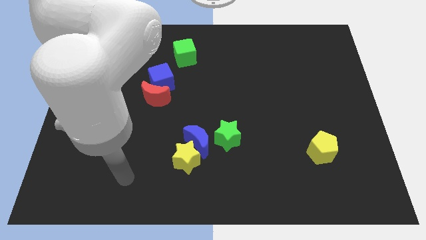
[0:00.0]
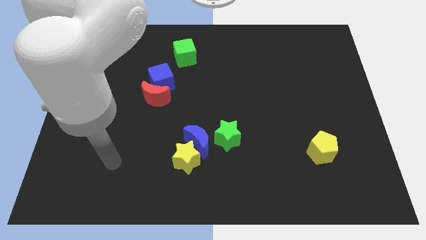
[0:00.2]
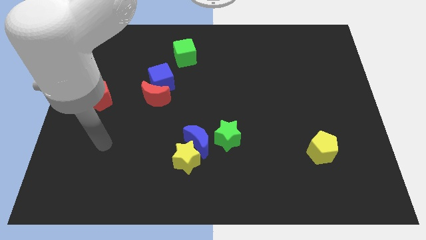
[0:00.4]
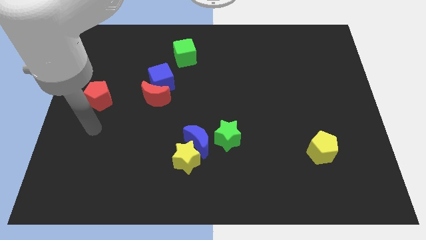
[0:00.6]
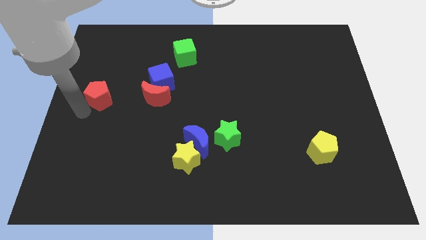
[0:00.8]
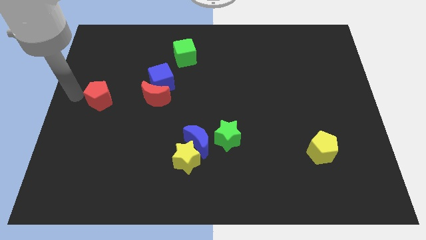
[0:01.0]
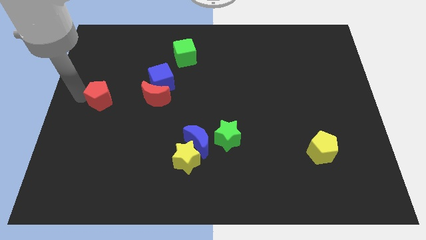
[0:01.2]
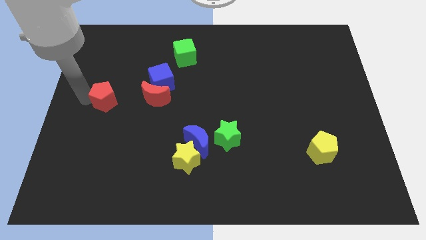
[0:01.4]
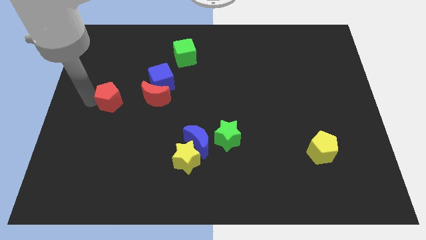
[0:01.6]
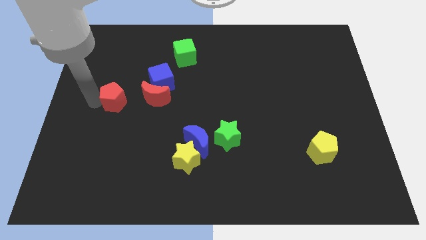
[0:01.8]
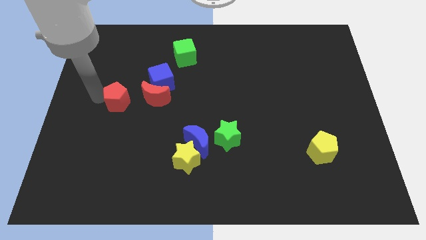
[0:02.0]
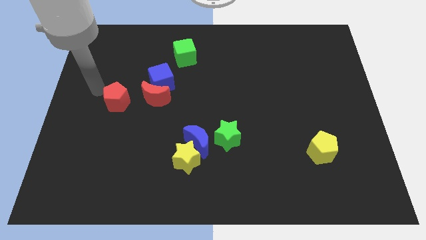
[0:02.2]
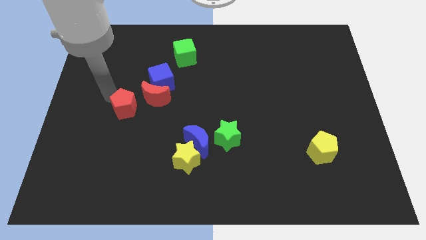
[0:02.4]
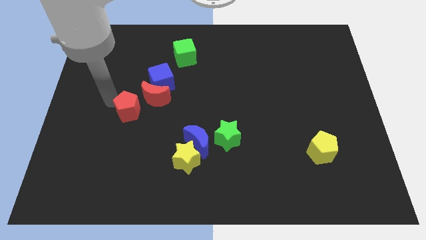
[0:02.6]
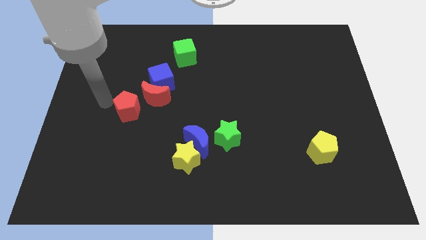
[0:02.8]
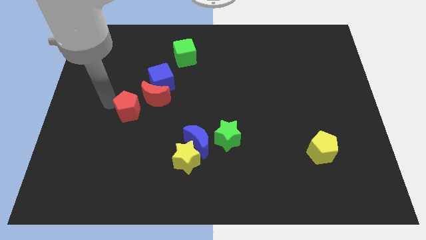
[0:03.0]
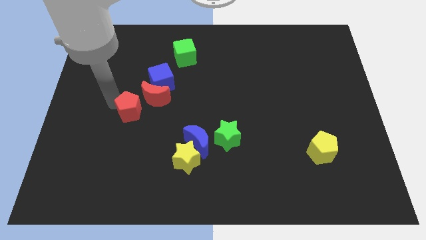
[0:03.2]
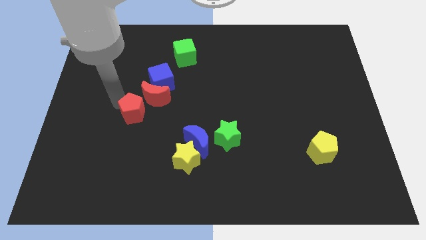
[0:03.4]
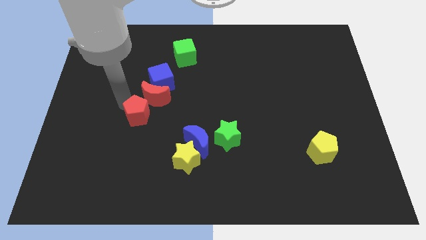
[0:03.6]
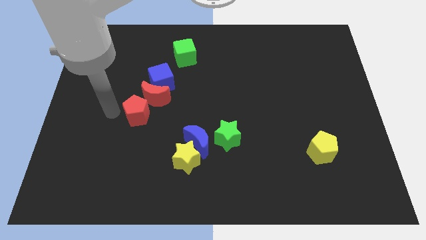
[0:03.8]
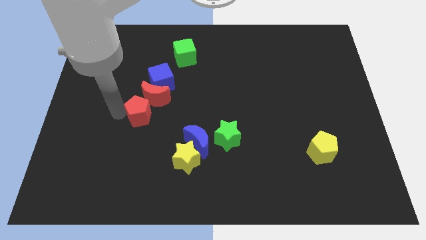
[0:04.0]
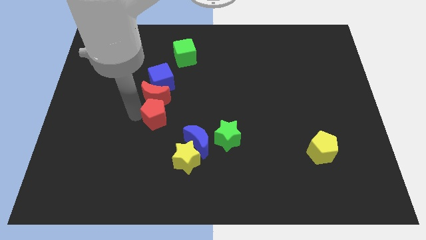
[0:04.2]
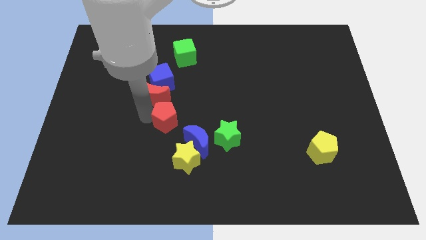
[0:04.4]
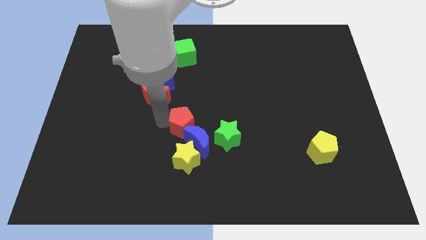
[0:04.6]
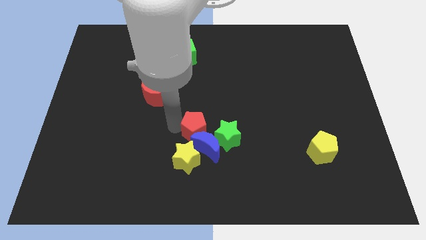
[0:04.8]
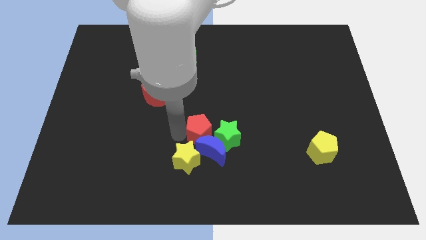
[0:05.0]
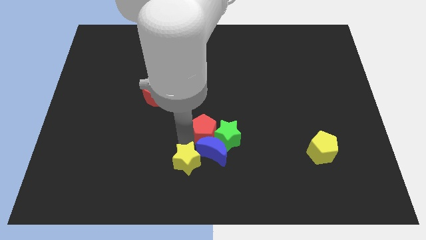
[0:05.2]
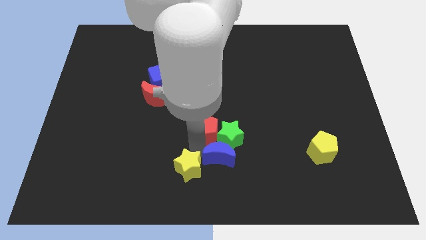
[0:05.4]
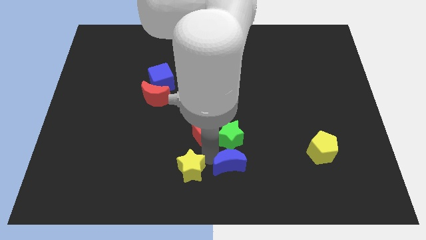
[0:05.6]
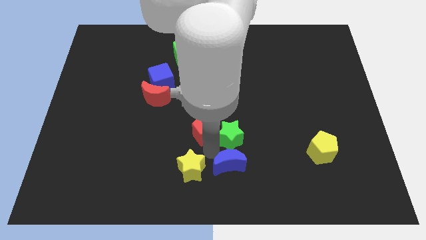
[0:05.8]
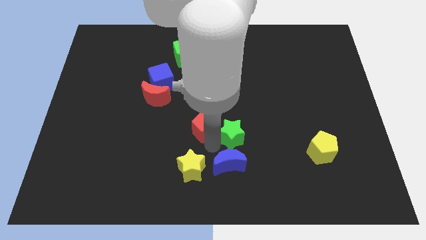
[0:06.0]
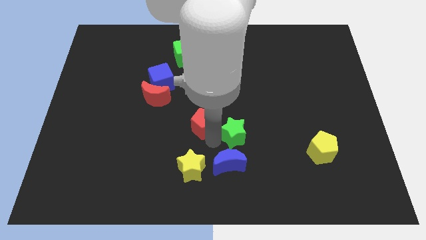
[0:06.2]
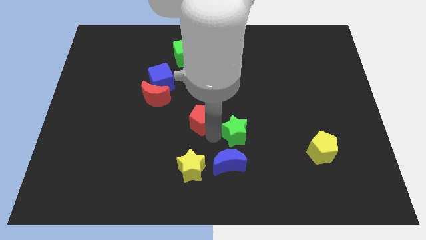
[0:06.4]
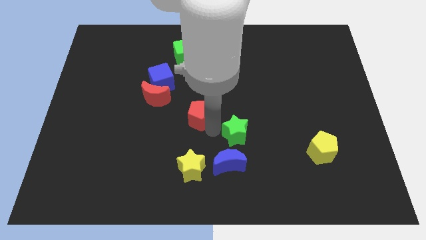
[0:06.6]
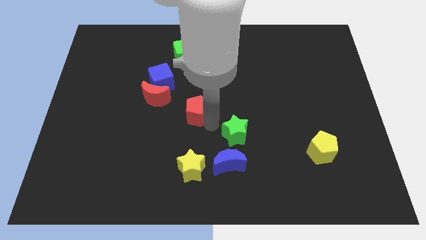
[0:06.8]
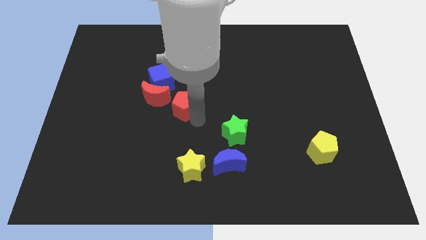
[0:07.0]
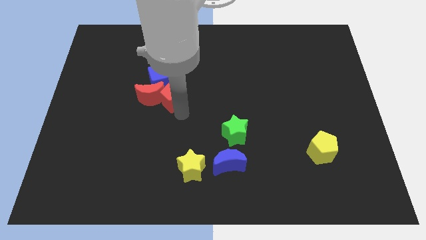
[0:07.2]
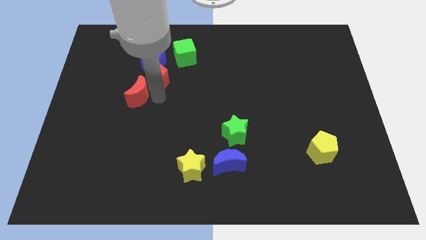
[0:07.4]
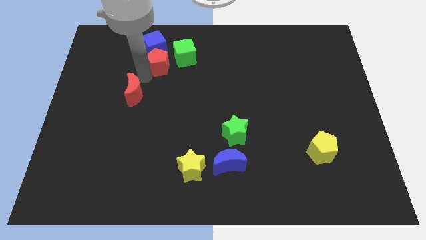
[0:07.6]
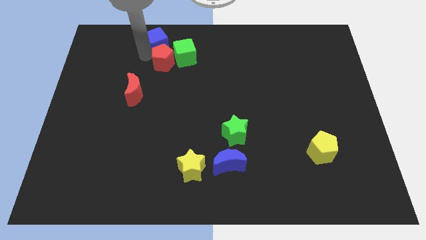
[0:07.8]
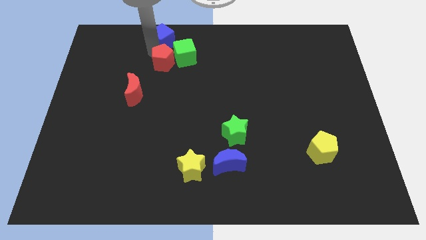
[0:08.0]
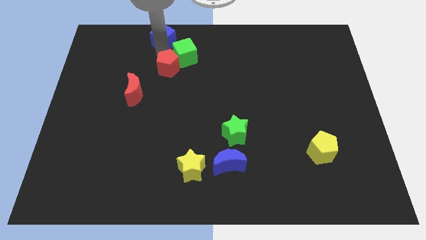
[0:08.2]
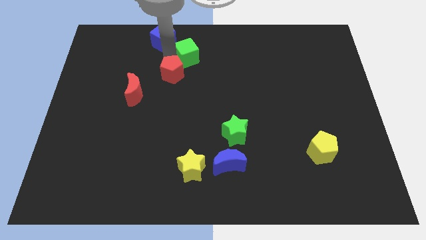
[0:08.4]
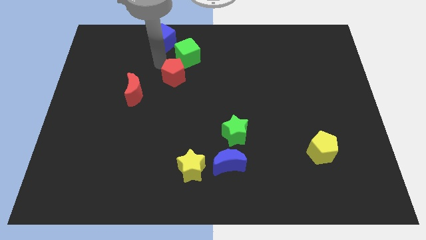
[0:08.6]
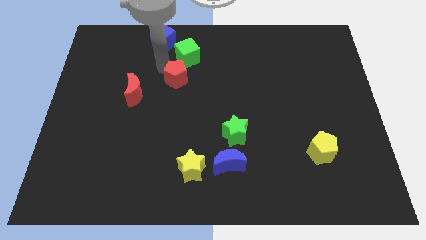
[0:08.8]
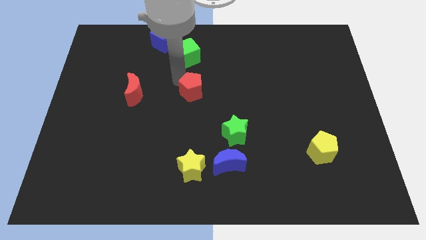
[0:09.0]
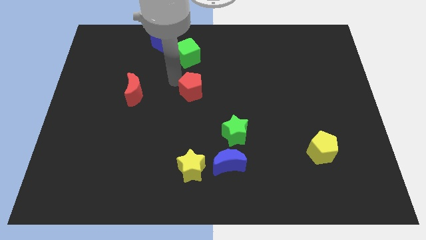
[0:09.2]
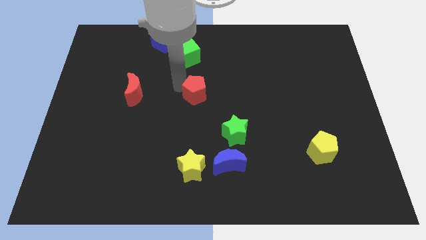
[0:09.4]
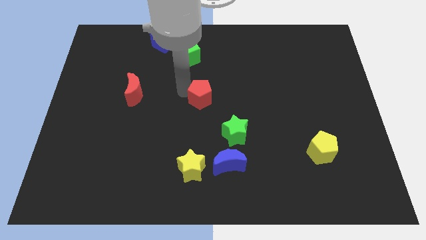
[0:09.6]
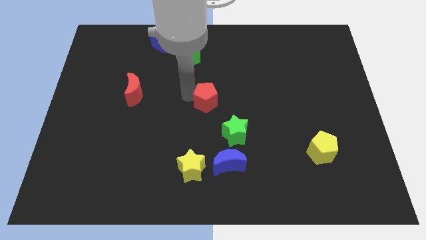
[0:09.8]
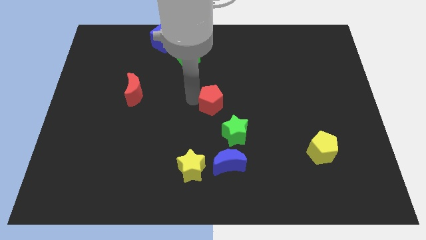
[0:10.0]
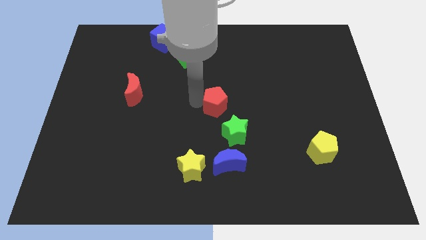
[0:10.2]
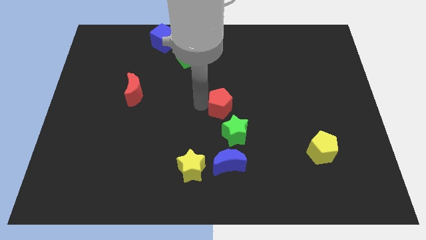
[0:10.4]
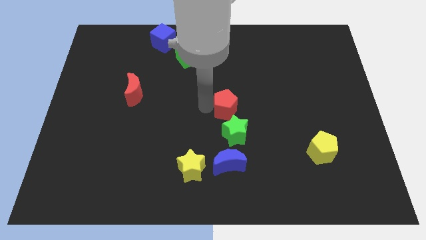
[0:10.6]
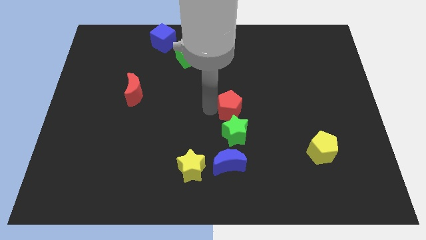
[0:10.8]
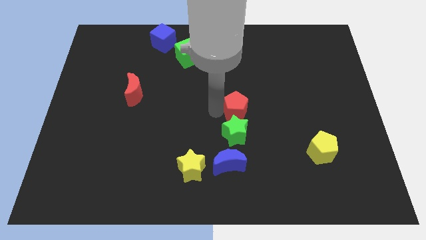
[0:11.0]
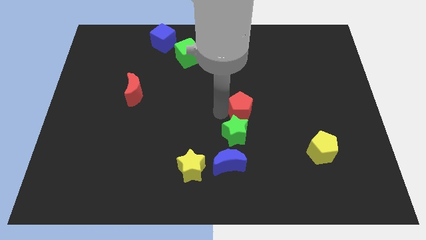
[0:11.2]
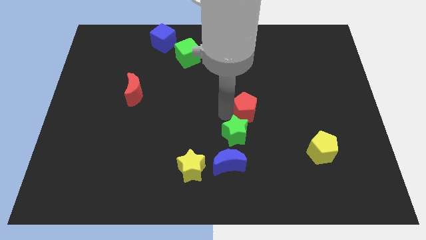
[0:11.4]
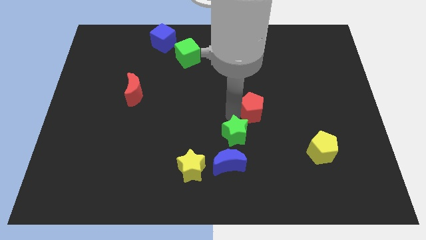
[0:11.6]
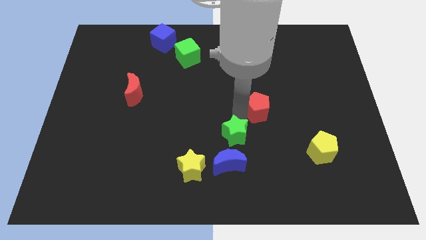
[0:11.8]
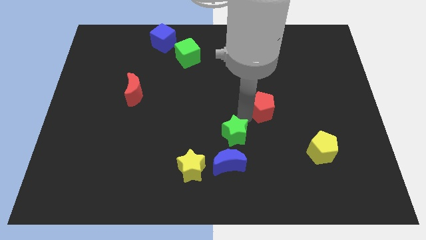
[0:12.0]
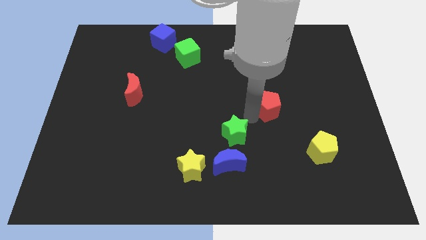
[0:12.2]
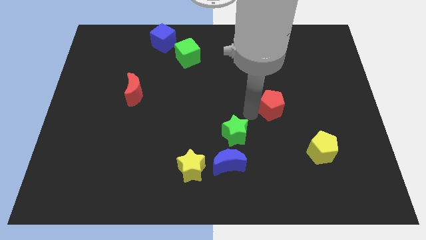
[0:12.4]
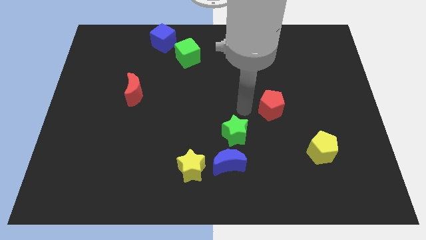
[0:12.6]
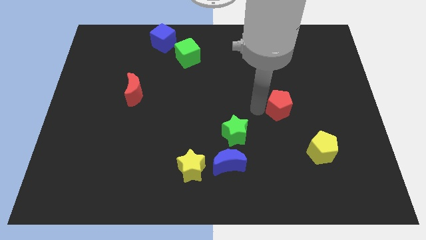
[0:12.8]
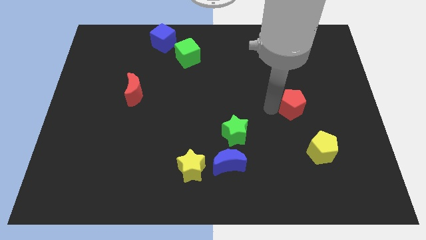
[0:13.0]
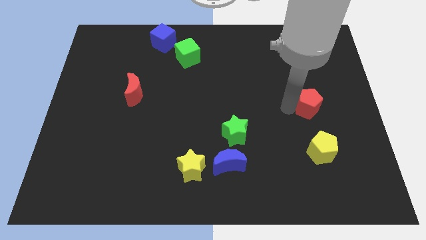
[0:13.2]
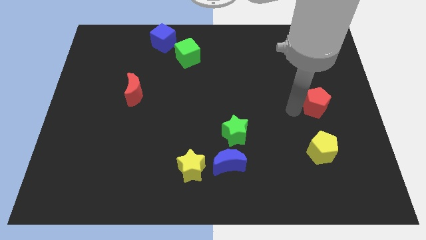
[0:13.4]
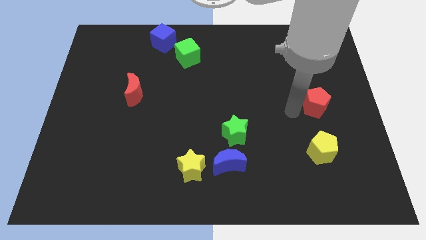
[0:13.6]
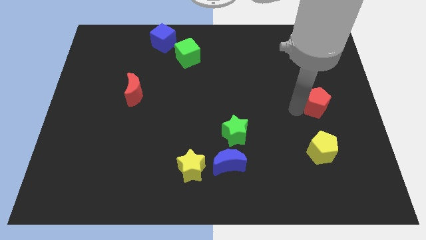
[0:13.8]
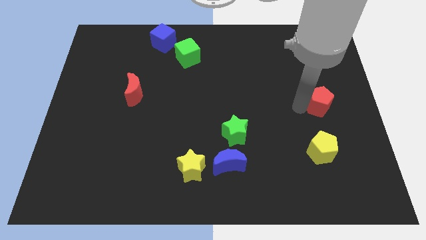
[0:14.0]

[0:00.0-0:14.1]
put the red pentagon to the right side of the board

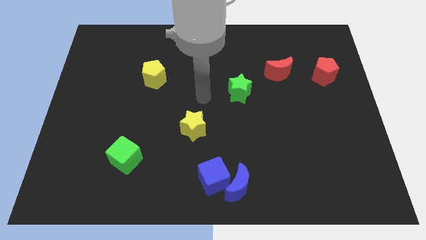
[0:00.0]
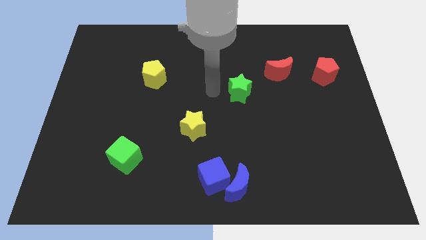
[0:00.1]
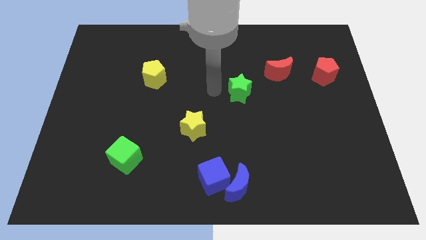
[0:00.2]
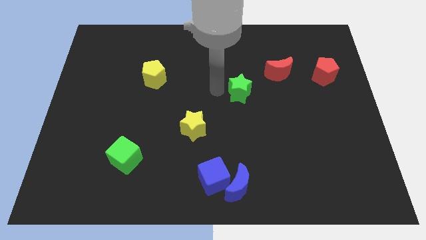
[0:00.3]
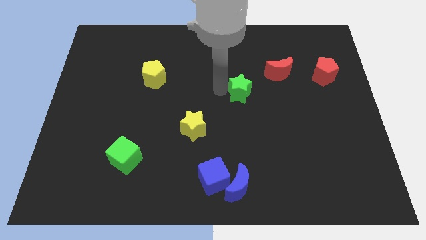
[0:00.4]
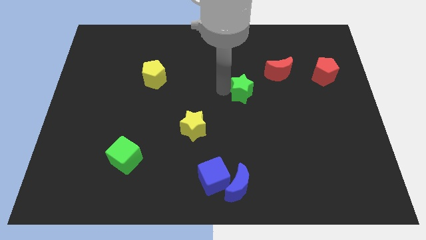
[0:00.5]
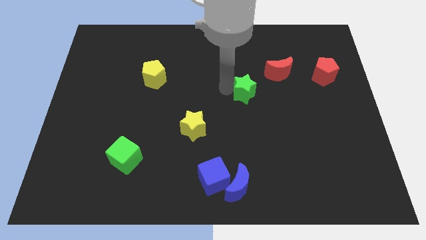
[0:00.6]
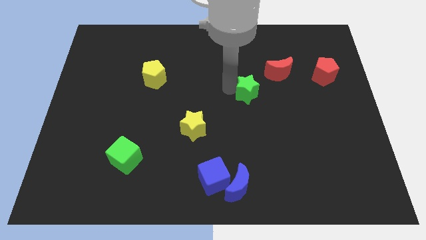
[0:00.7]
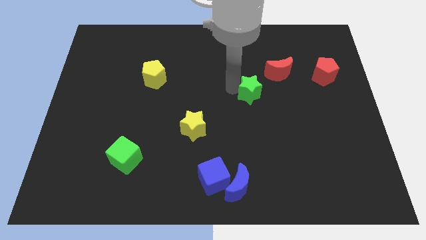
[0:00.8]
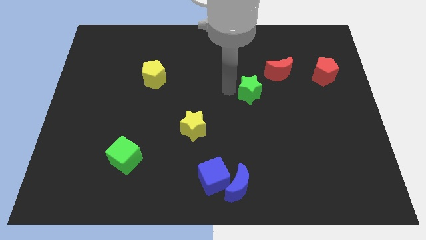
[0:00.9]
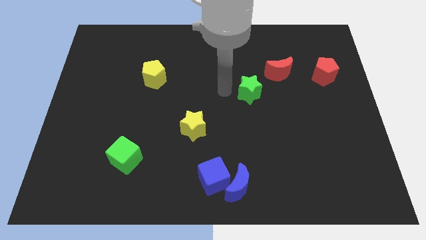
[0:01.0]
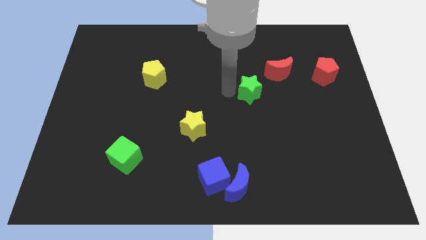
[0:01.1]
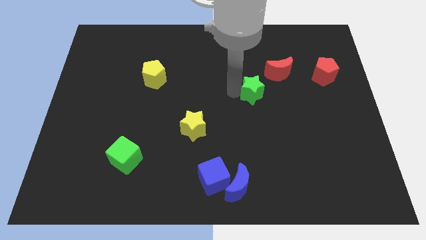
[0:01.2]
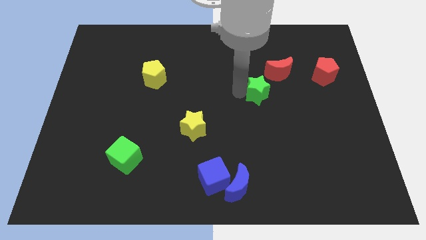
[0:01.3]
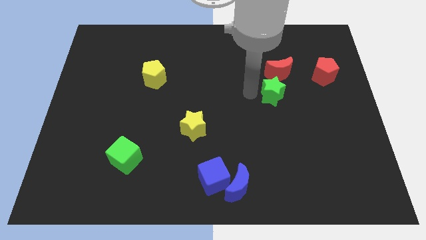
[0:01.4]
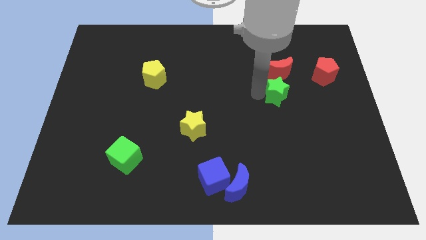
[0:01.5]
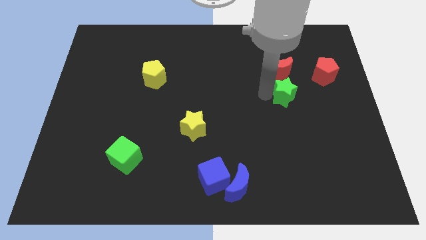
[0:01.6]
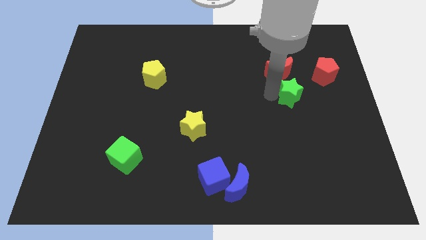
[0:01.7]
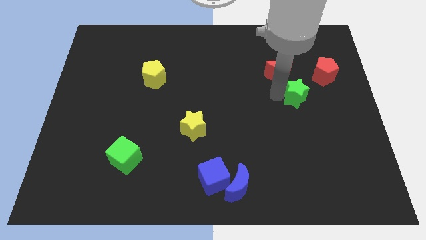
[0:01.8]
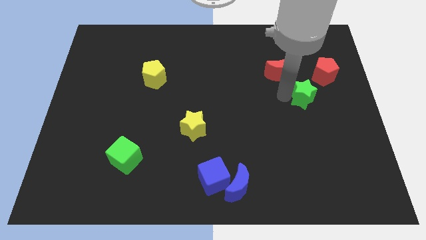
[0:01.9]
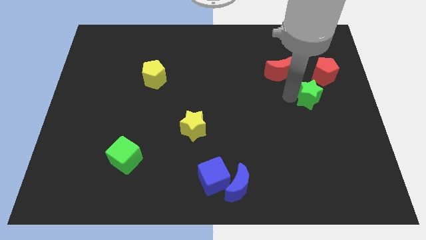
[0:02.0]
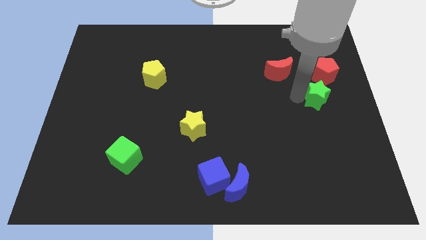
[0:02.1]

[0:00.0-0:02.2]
slide the green star to the right side of the board
